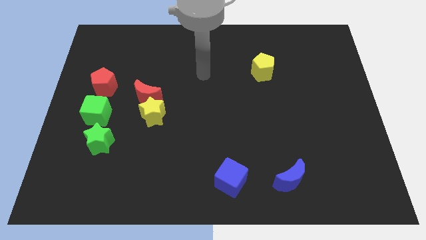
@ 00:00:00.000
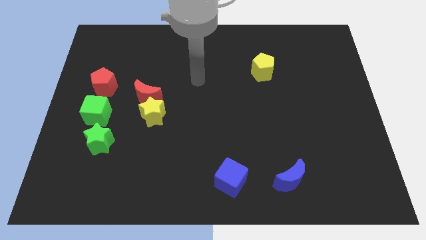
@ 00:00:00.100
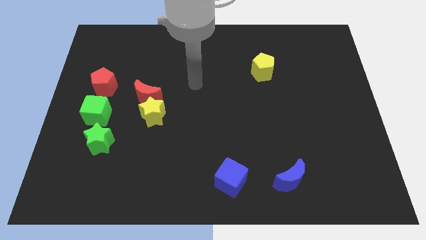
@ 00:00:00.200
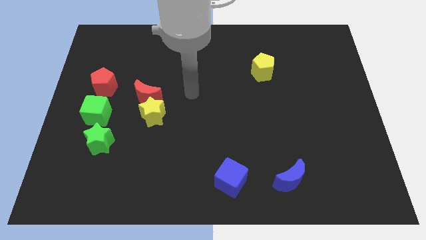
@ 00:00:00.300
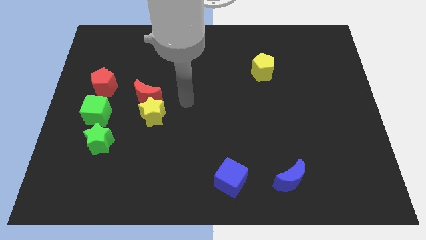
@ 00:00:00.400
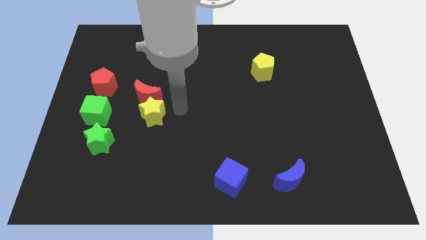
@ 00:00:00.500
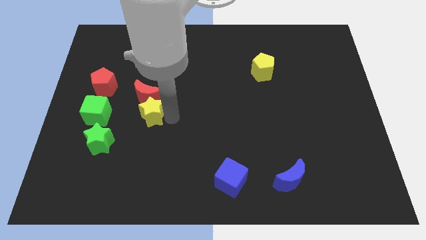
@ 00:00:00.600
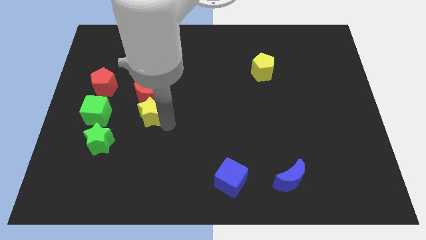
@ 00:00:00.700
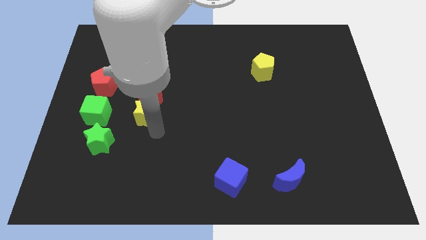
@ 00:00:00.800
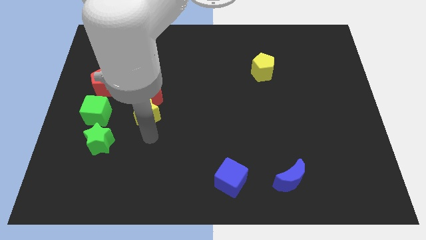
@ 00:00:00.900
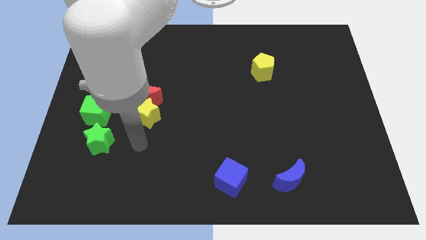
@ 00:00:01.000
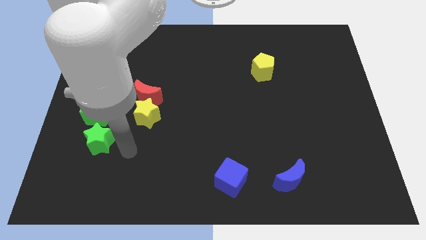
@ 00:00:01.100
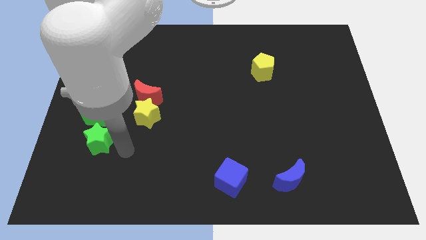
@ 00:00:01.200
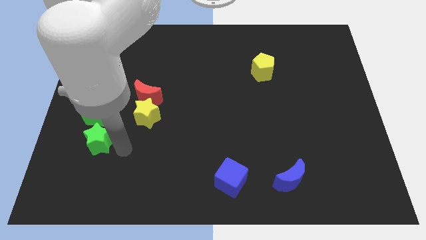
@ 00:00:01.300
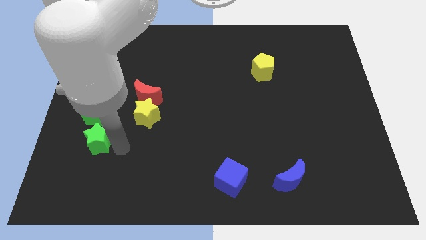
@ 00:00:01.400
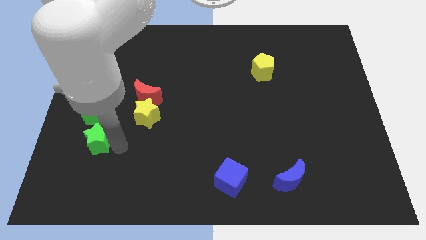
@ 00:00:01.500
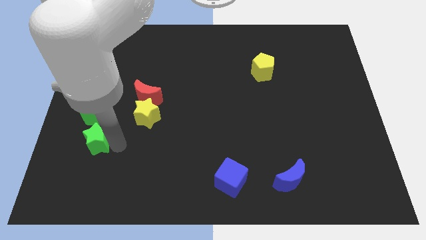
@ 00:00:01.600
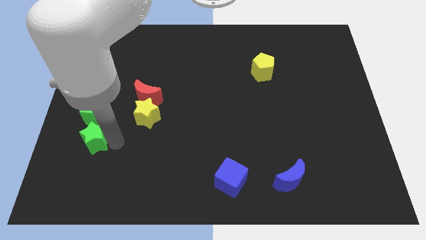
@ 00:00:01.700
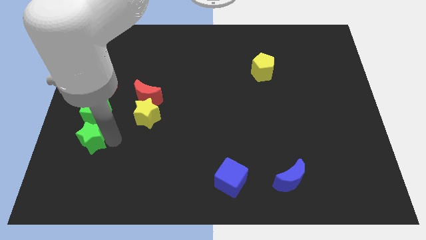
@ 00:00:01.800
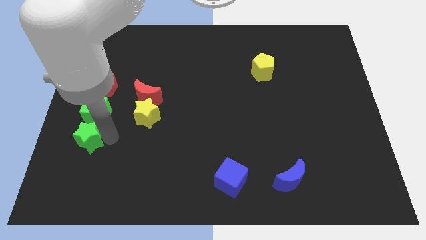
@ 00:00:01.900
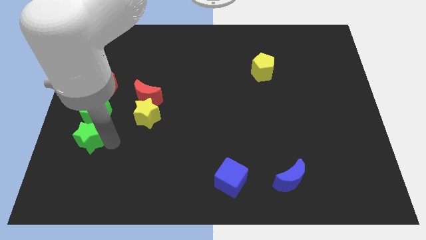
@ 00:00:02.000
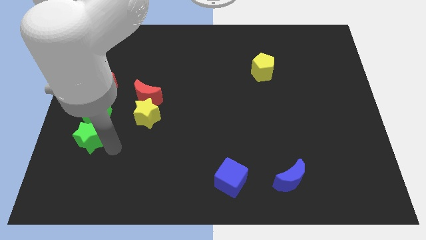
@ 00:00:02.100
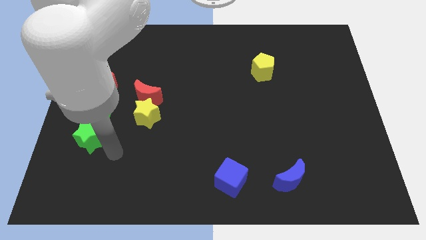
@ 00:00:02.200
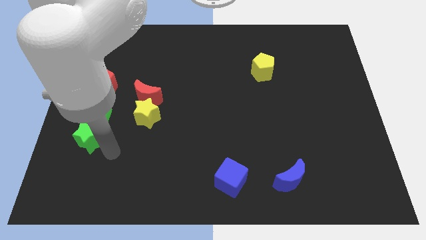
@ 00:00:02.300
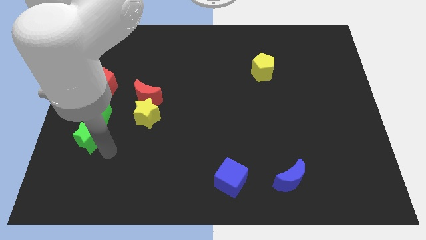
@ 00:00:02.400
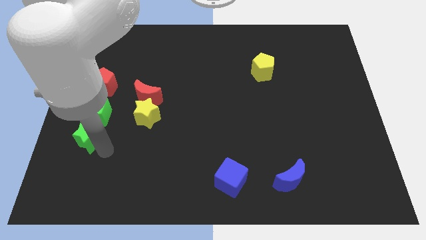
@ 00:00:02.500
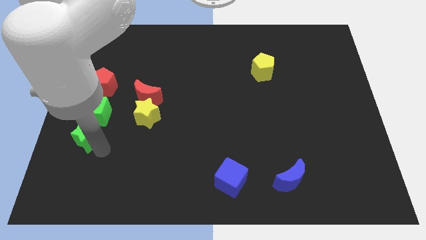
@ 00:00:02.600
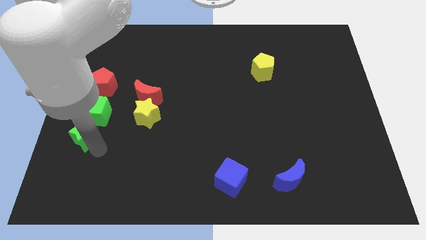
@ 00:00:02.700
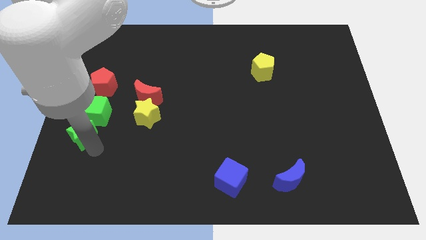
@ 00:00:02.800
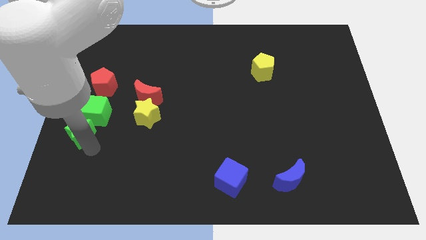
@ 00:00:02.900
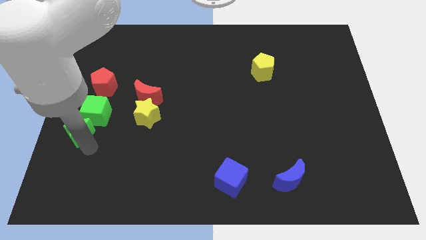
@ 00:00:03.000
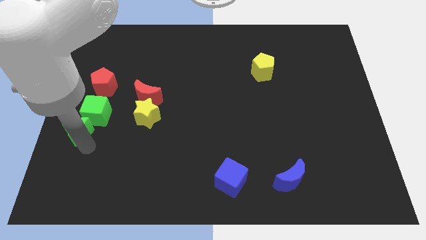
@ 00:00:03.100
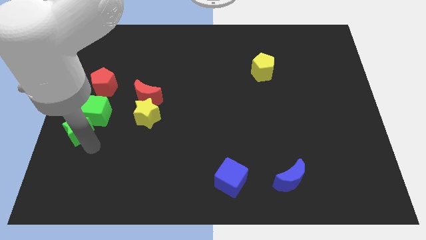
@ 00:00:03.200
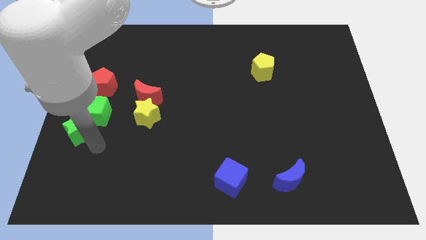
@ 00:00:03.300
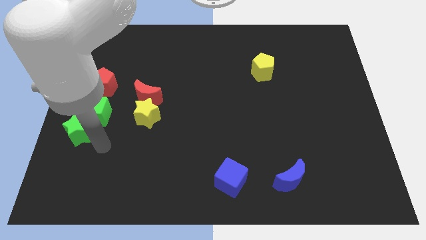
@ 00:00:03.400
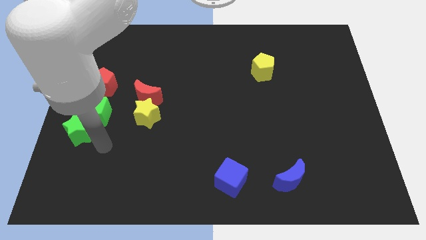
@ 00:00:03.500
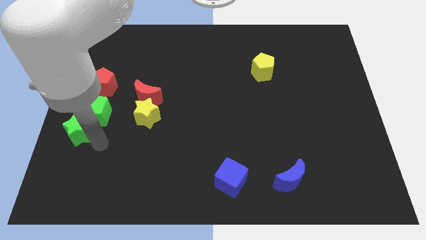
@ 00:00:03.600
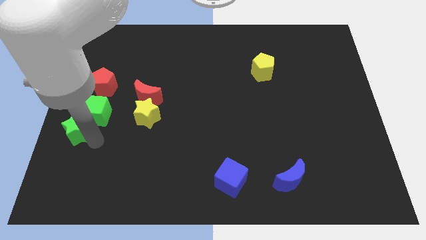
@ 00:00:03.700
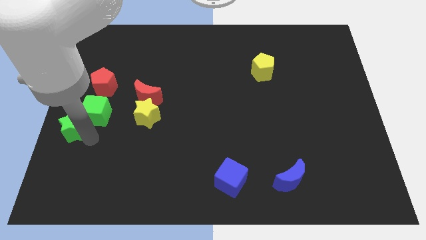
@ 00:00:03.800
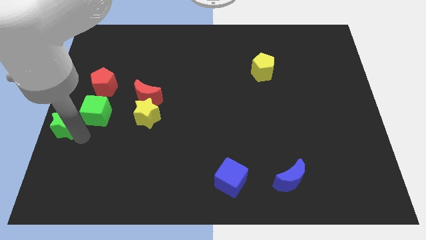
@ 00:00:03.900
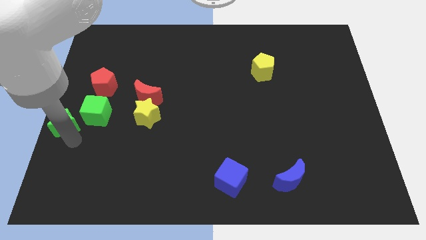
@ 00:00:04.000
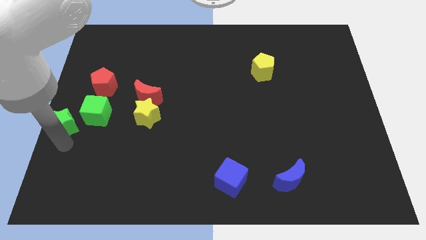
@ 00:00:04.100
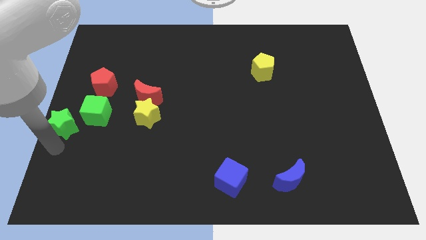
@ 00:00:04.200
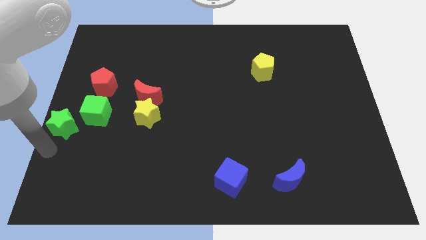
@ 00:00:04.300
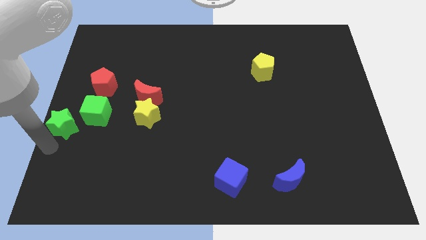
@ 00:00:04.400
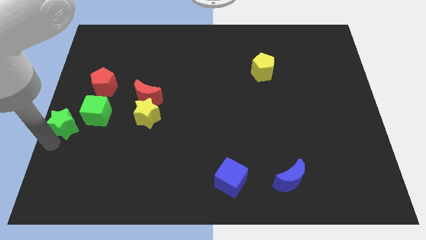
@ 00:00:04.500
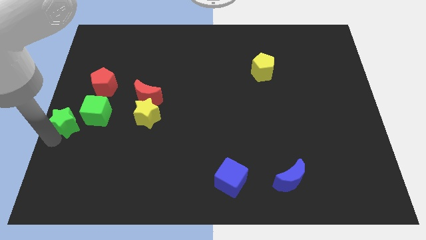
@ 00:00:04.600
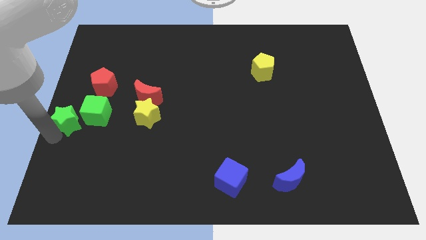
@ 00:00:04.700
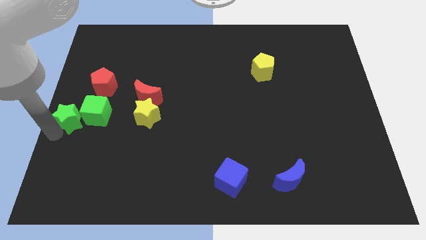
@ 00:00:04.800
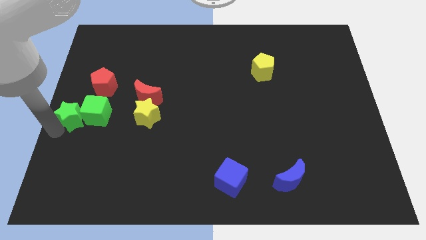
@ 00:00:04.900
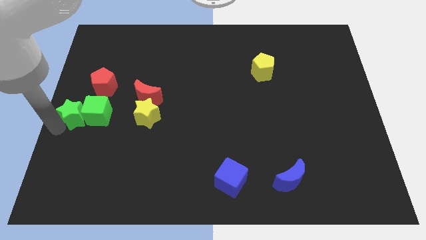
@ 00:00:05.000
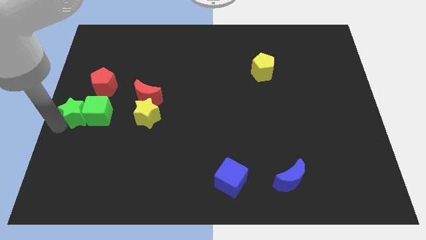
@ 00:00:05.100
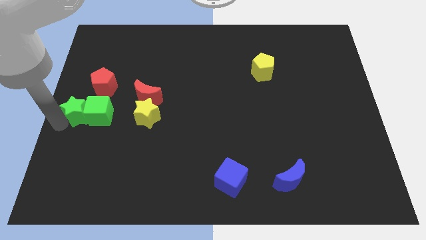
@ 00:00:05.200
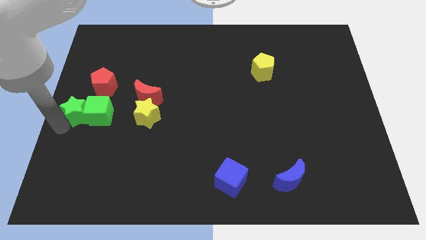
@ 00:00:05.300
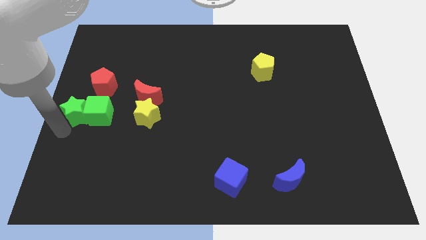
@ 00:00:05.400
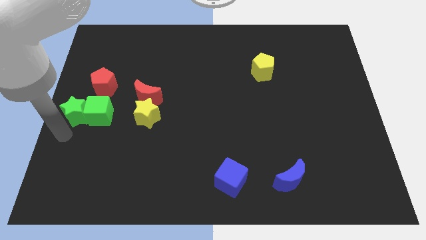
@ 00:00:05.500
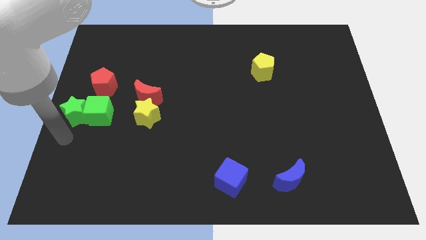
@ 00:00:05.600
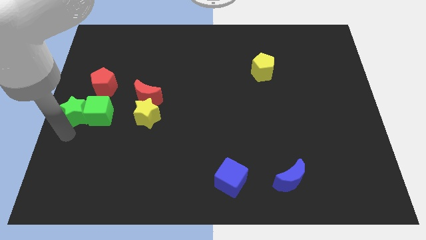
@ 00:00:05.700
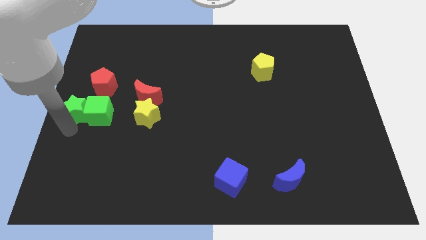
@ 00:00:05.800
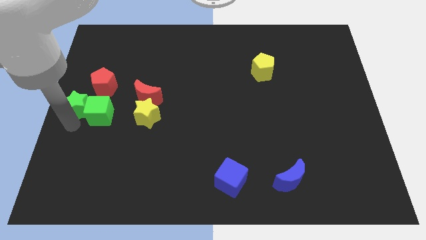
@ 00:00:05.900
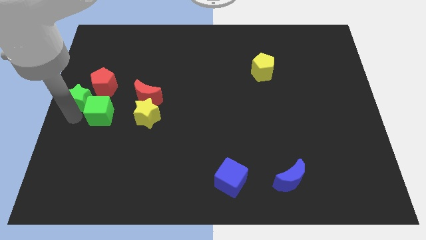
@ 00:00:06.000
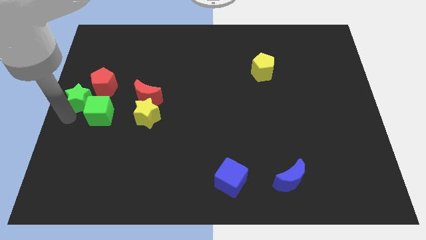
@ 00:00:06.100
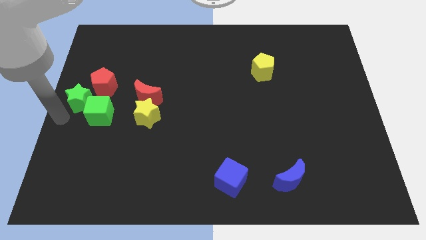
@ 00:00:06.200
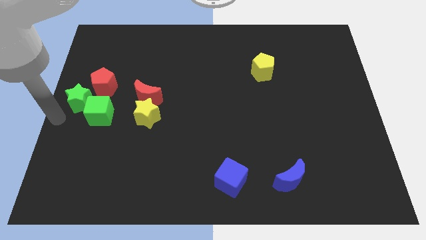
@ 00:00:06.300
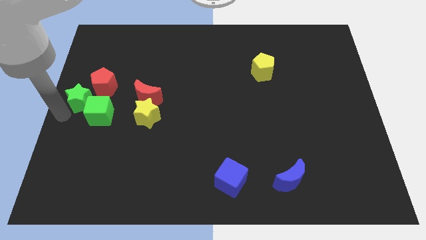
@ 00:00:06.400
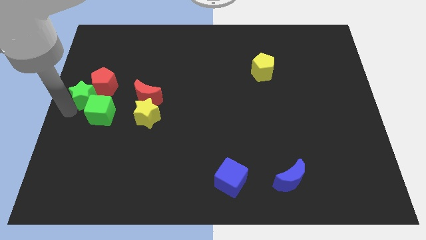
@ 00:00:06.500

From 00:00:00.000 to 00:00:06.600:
push the green star next to the red pentagon
